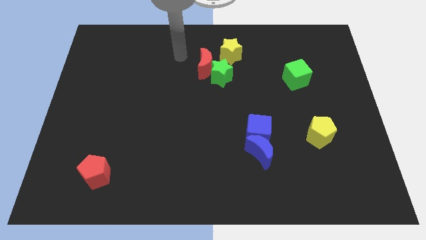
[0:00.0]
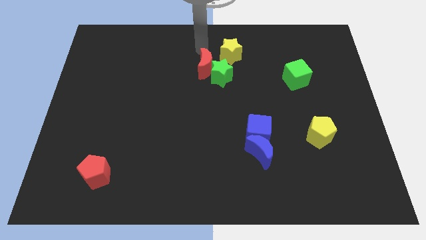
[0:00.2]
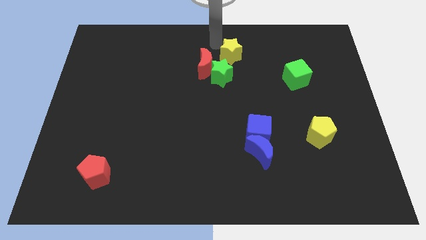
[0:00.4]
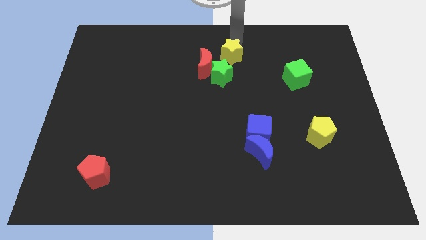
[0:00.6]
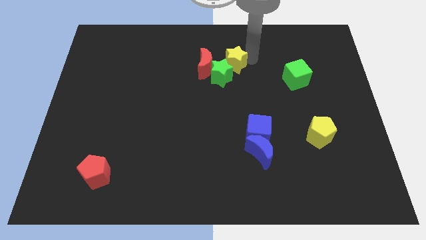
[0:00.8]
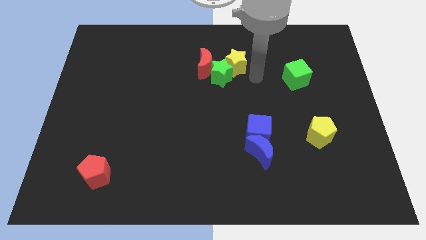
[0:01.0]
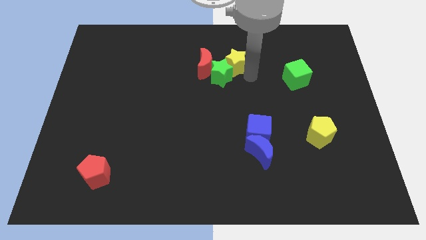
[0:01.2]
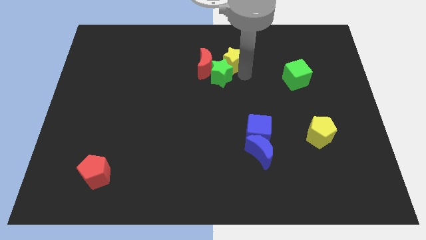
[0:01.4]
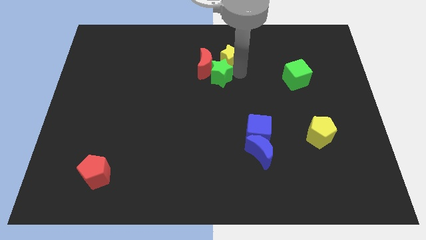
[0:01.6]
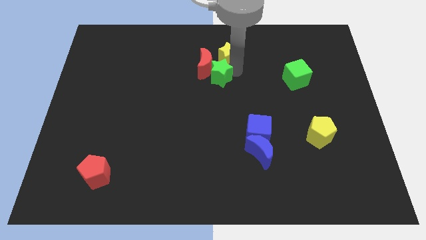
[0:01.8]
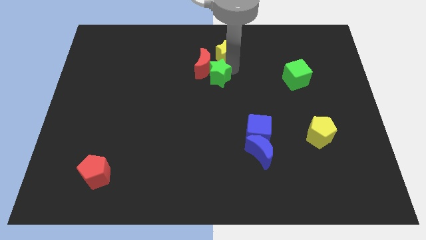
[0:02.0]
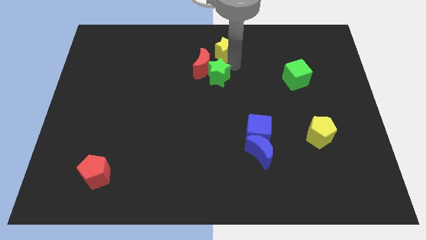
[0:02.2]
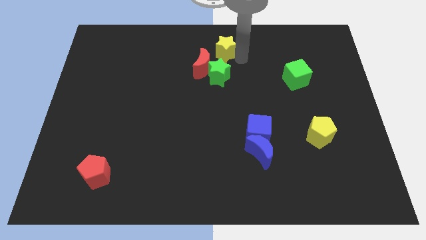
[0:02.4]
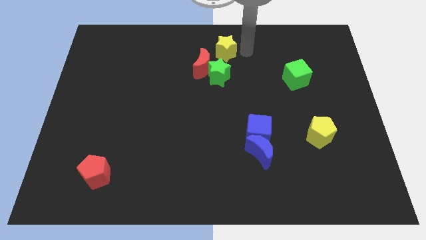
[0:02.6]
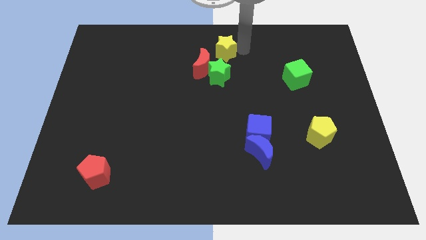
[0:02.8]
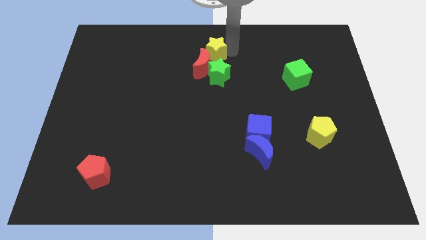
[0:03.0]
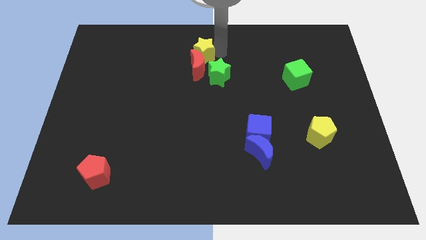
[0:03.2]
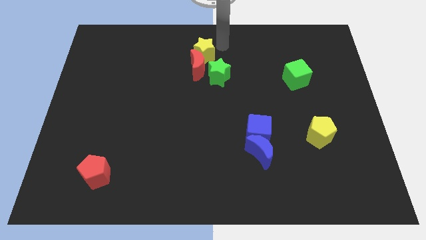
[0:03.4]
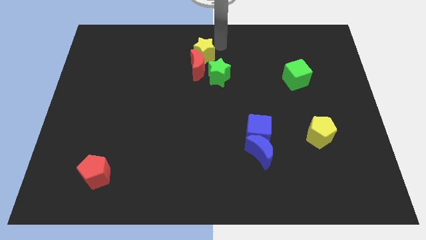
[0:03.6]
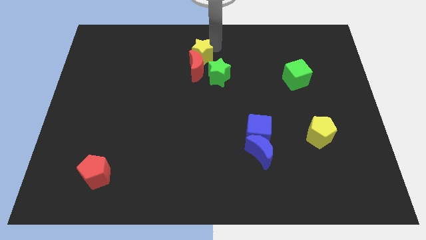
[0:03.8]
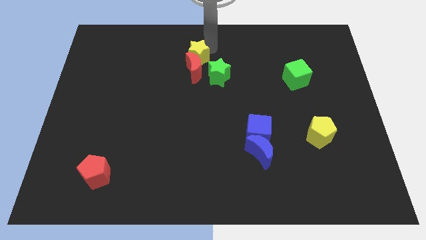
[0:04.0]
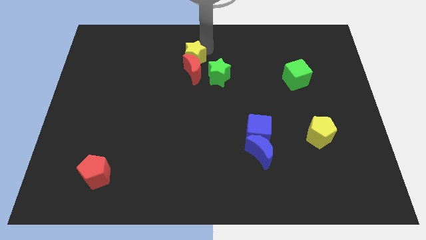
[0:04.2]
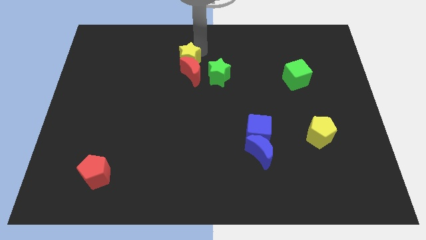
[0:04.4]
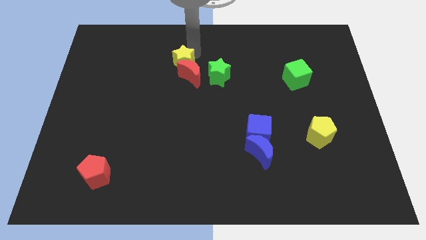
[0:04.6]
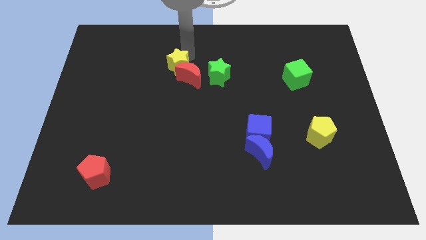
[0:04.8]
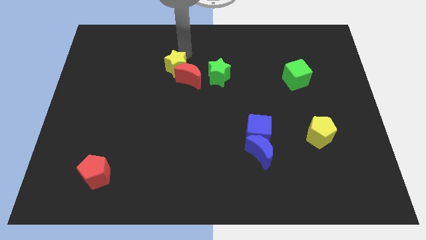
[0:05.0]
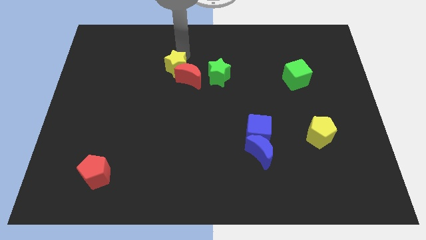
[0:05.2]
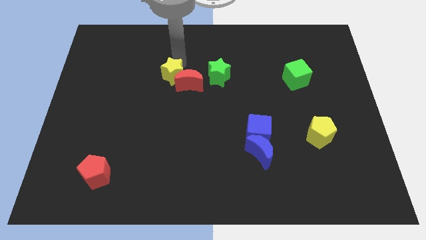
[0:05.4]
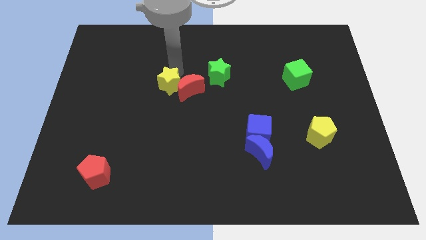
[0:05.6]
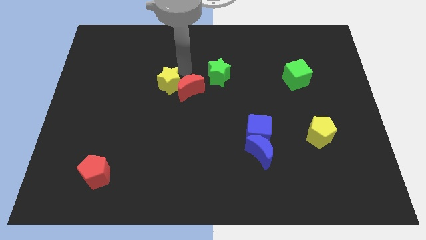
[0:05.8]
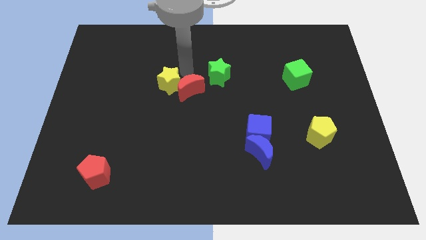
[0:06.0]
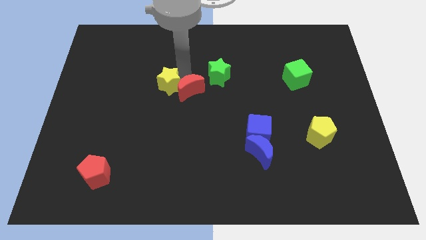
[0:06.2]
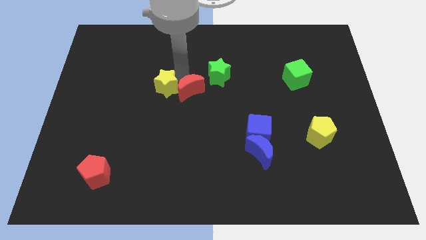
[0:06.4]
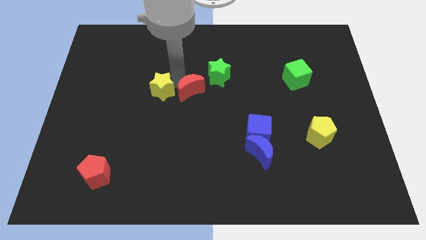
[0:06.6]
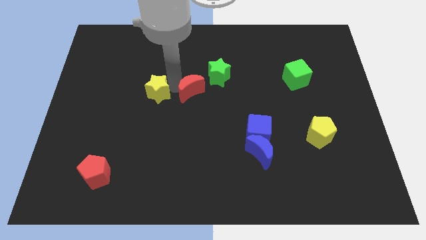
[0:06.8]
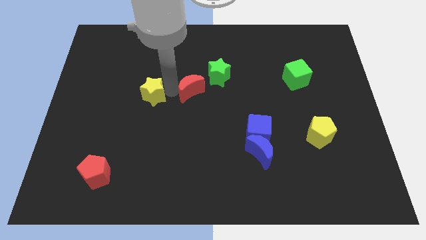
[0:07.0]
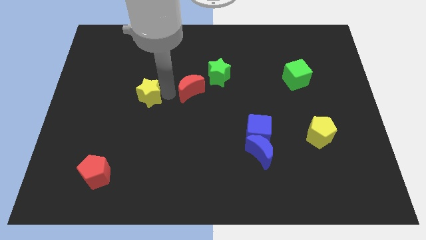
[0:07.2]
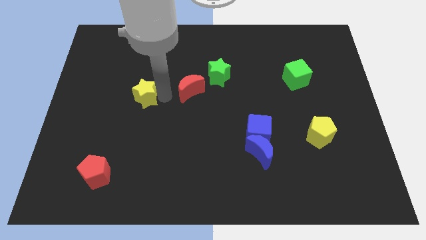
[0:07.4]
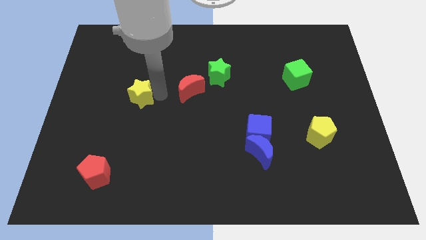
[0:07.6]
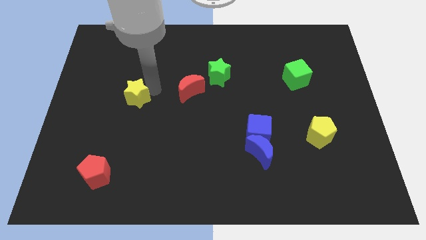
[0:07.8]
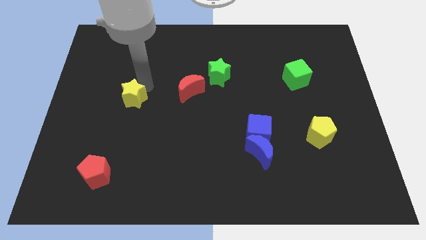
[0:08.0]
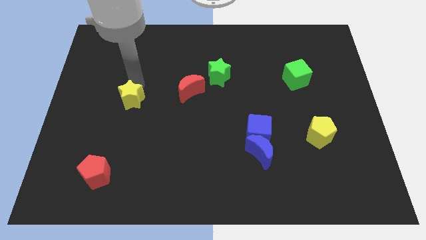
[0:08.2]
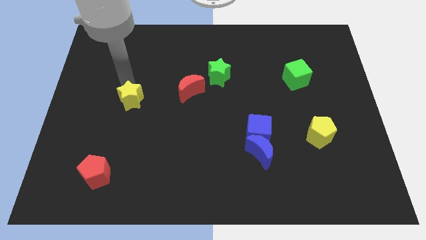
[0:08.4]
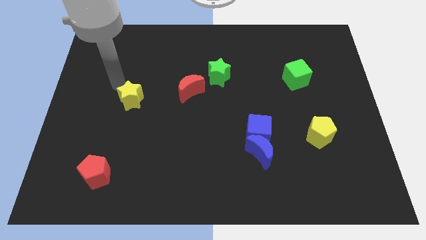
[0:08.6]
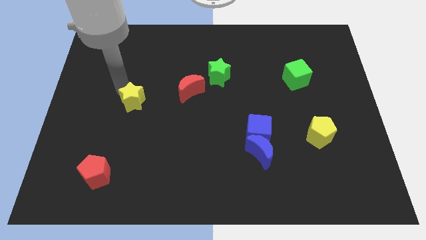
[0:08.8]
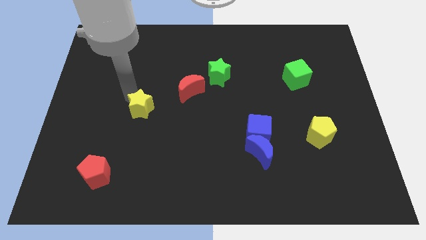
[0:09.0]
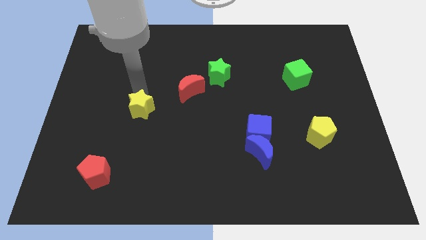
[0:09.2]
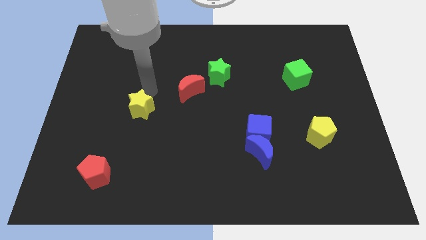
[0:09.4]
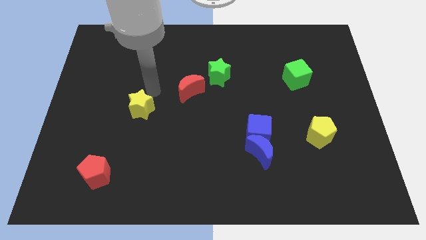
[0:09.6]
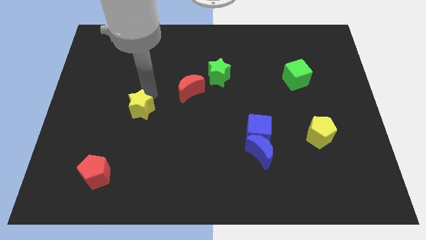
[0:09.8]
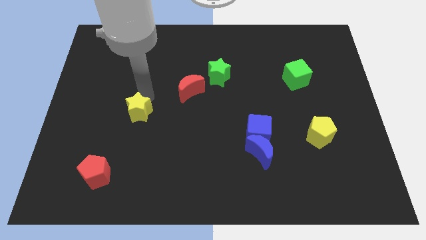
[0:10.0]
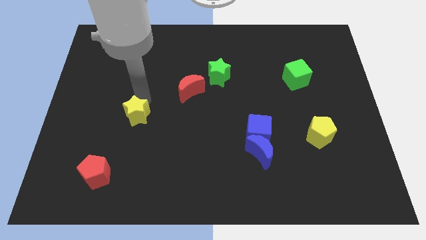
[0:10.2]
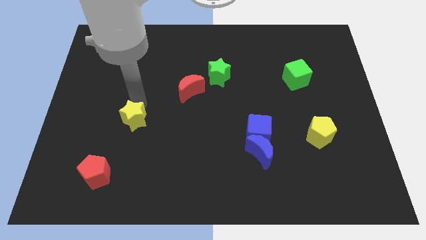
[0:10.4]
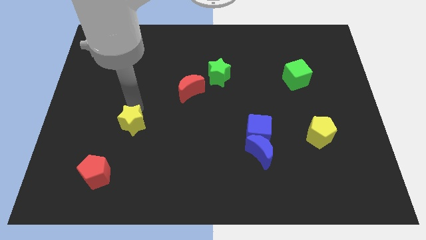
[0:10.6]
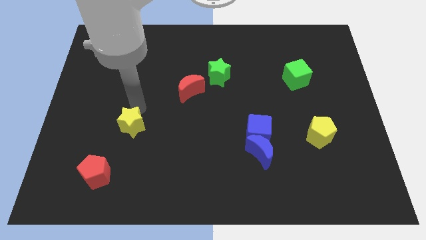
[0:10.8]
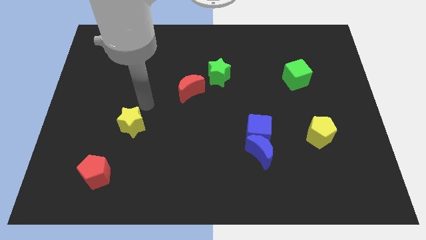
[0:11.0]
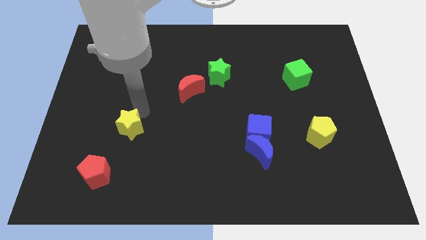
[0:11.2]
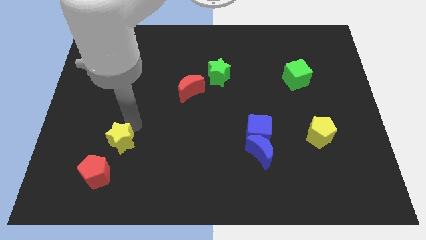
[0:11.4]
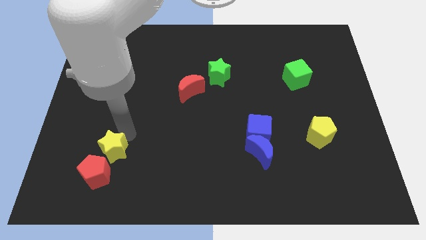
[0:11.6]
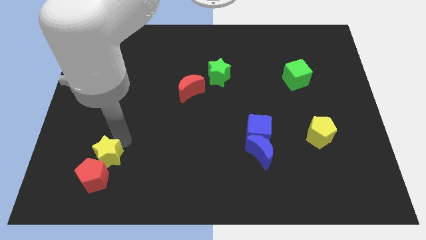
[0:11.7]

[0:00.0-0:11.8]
put the yellow star to the red pentagon

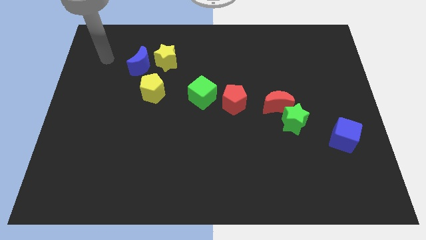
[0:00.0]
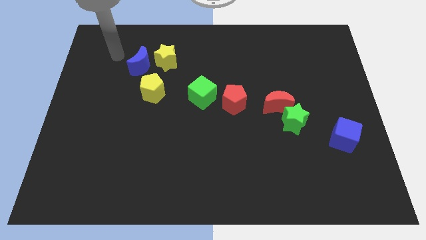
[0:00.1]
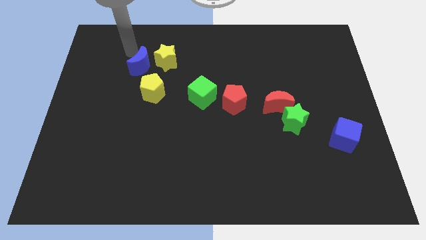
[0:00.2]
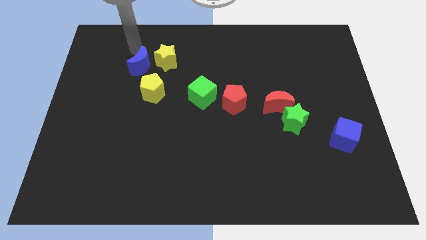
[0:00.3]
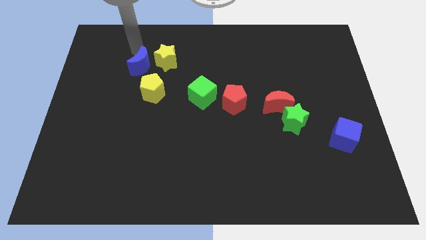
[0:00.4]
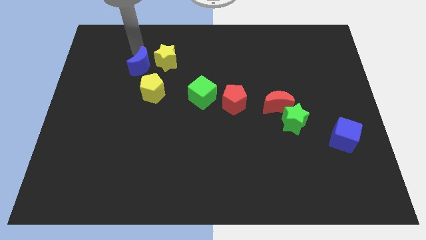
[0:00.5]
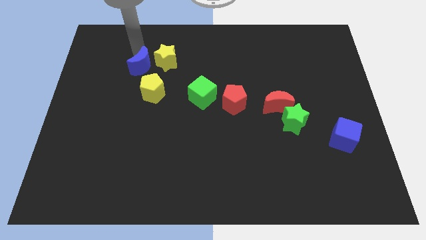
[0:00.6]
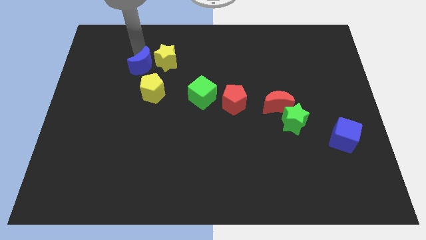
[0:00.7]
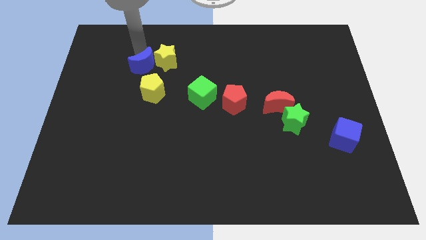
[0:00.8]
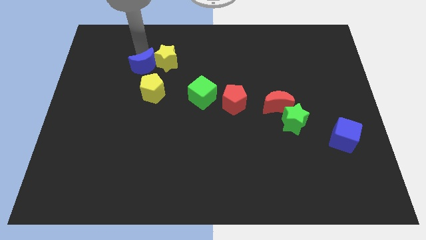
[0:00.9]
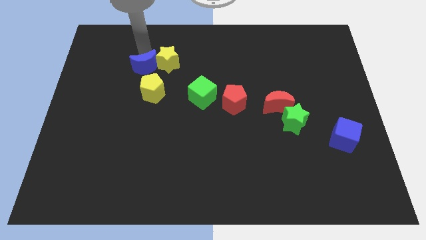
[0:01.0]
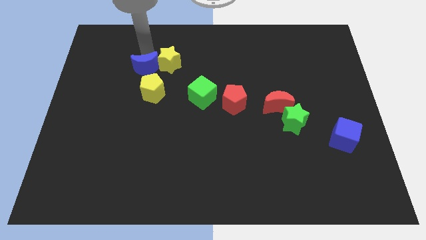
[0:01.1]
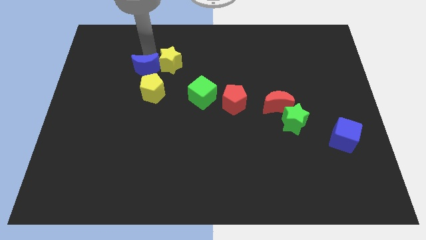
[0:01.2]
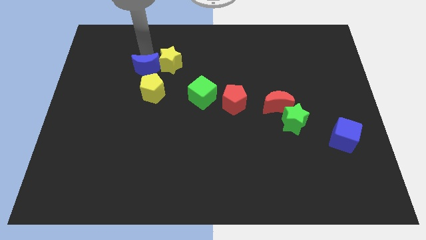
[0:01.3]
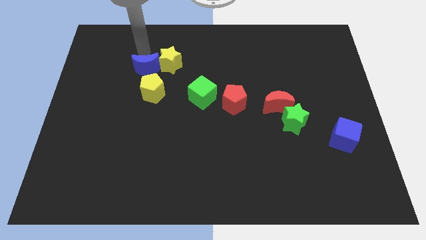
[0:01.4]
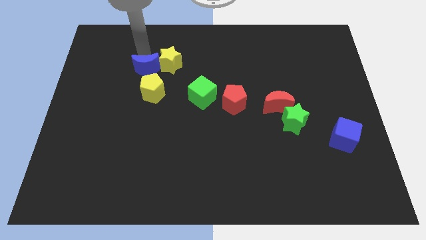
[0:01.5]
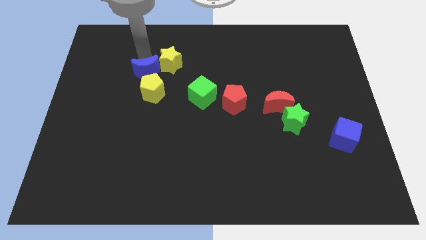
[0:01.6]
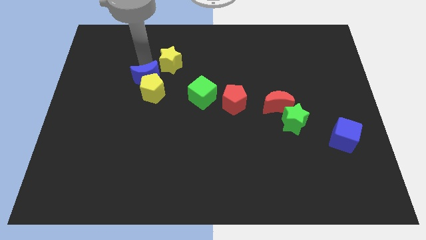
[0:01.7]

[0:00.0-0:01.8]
put the blue moon close to the yellow pentagon
